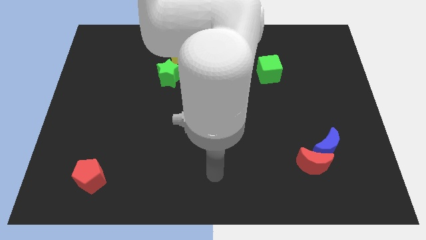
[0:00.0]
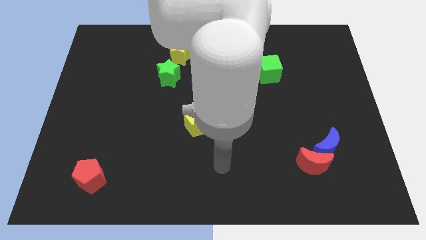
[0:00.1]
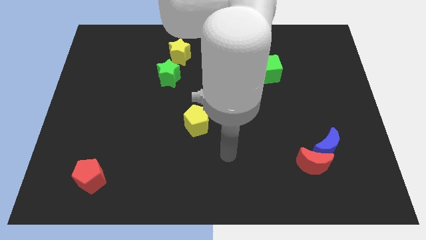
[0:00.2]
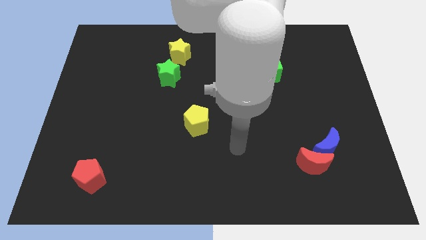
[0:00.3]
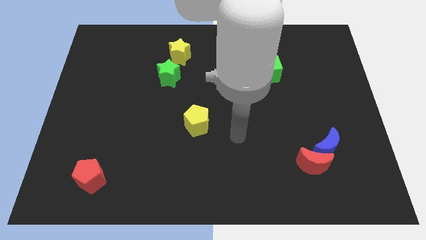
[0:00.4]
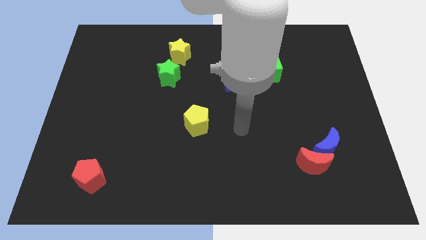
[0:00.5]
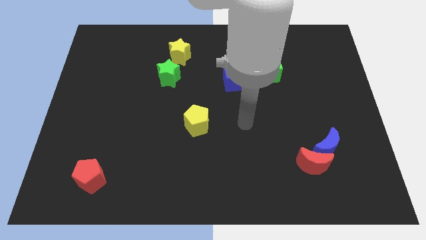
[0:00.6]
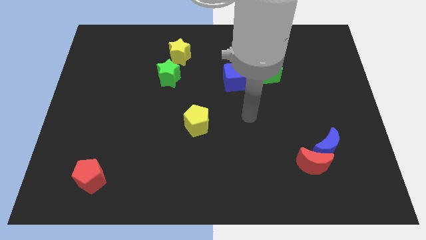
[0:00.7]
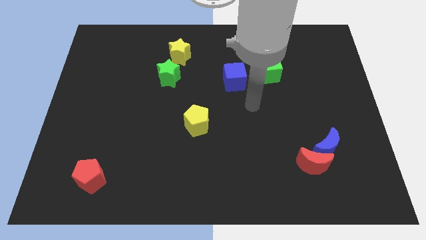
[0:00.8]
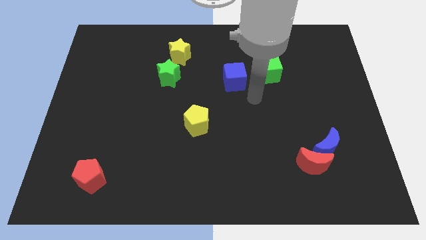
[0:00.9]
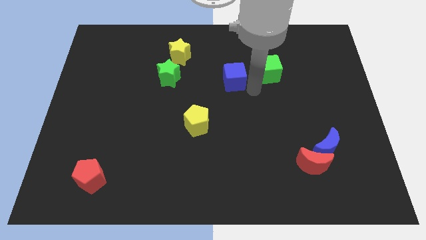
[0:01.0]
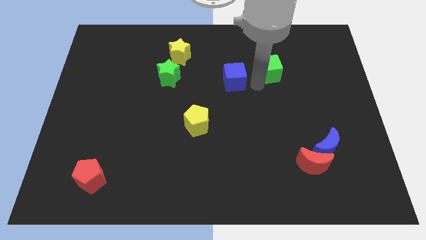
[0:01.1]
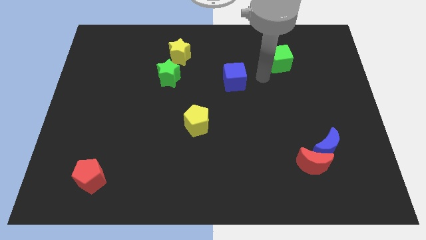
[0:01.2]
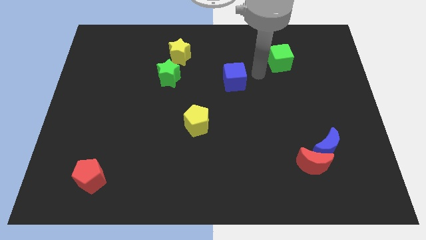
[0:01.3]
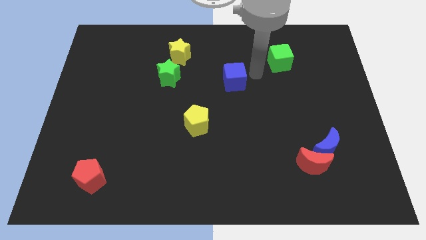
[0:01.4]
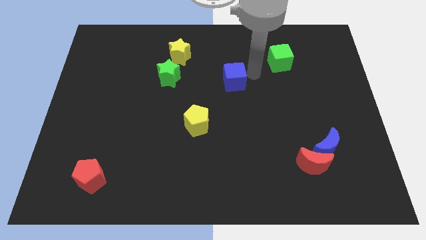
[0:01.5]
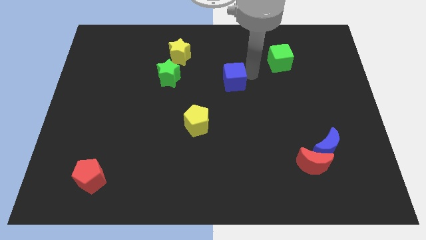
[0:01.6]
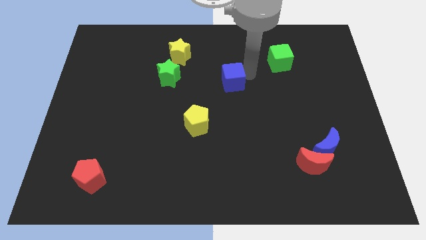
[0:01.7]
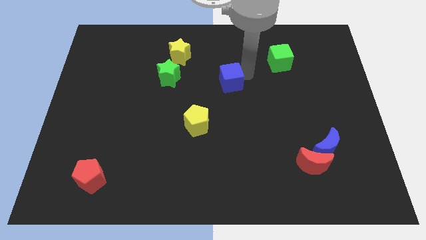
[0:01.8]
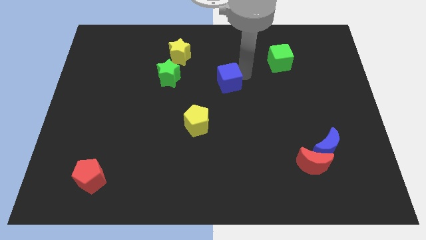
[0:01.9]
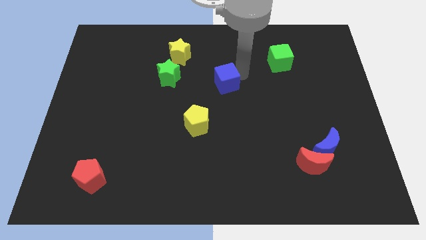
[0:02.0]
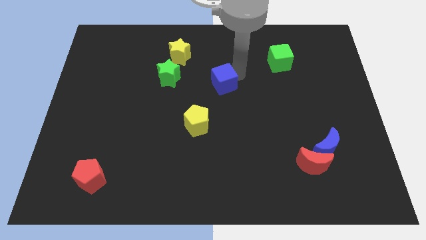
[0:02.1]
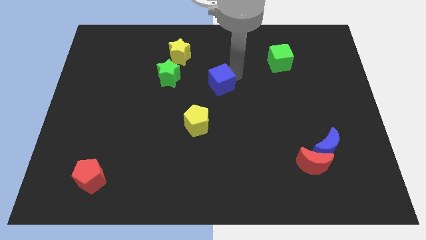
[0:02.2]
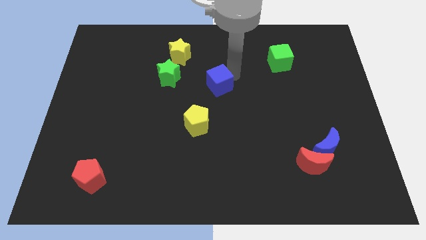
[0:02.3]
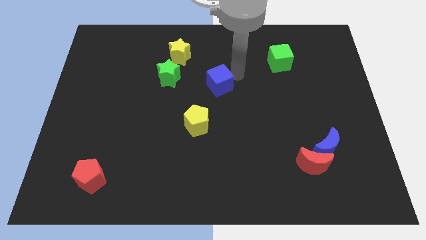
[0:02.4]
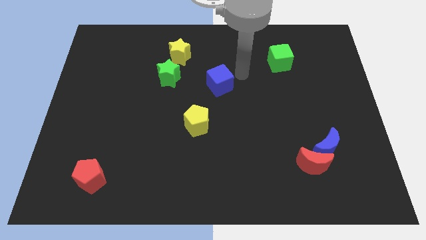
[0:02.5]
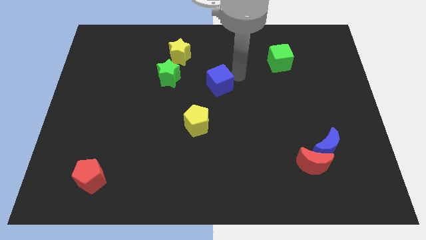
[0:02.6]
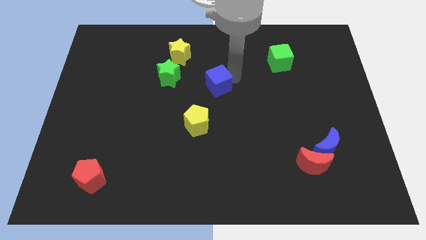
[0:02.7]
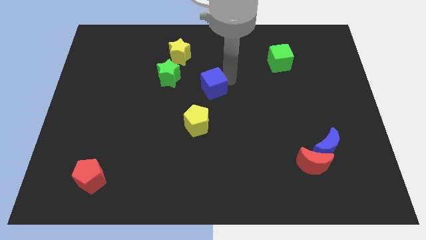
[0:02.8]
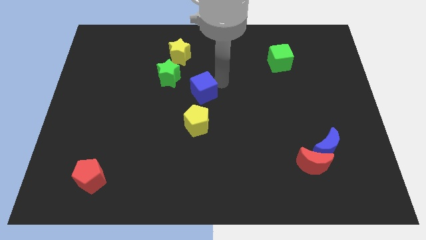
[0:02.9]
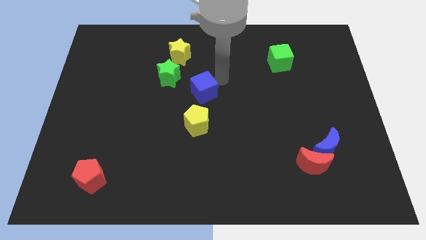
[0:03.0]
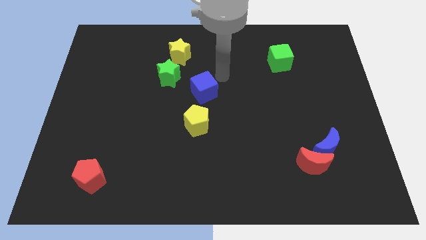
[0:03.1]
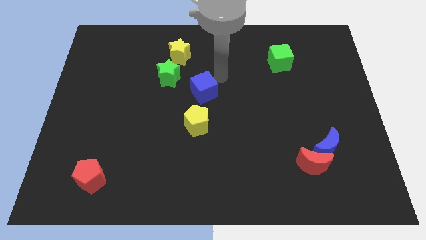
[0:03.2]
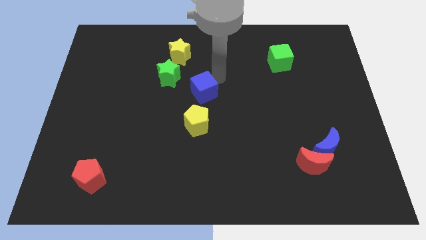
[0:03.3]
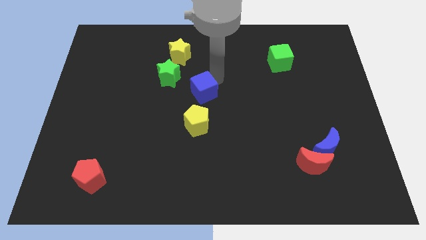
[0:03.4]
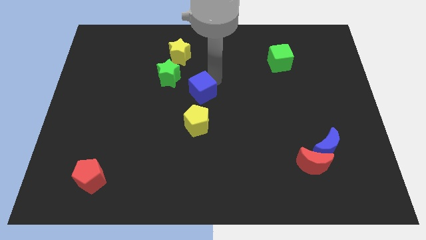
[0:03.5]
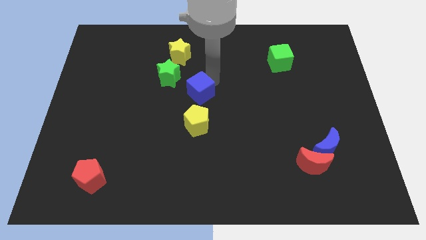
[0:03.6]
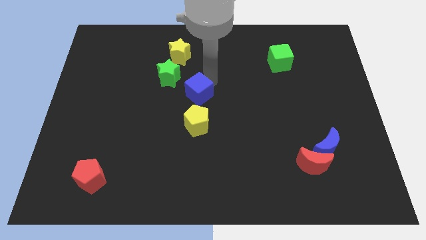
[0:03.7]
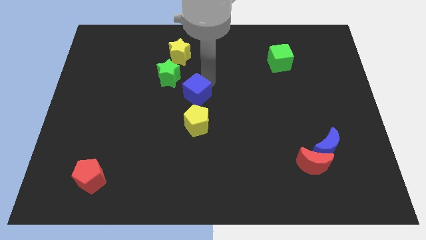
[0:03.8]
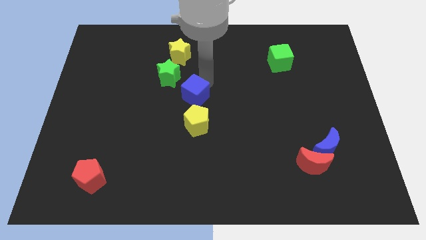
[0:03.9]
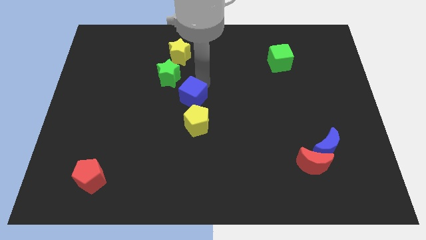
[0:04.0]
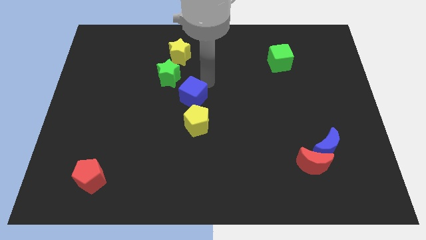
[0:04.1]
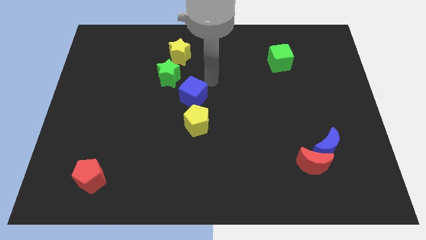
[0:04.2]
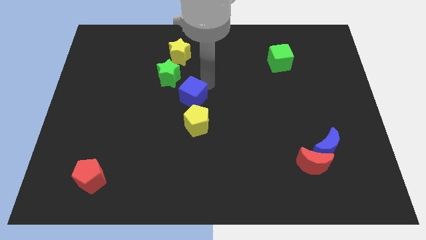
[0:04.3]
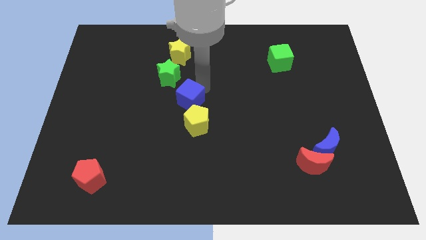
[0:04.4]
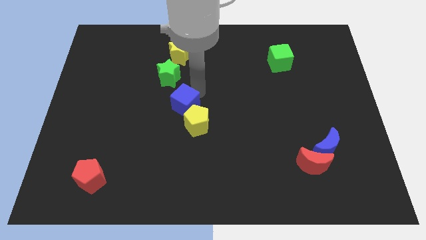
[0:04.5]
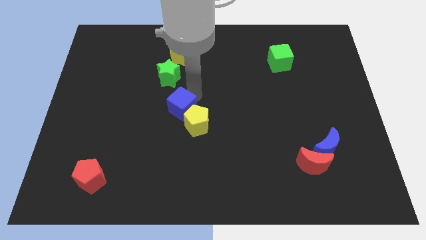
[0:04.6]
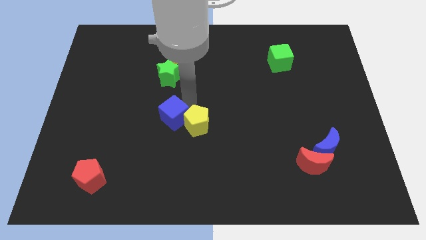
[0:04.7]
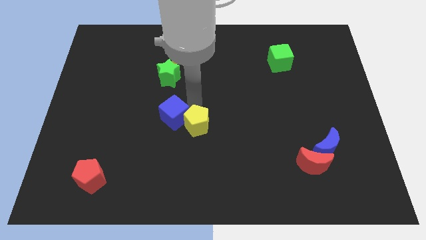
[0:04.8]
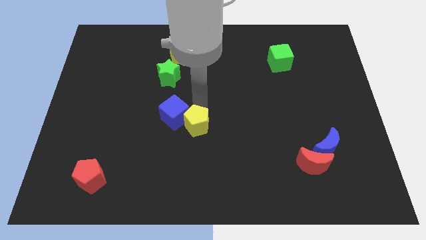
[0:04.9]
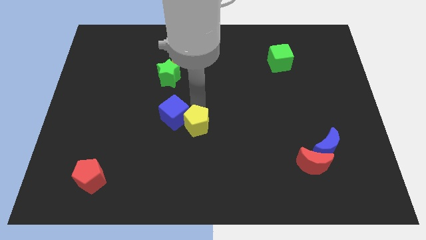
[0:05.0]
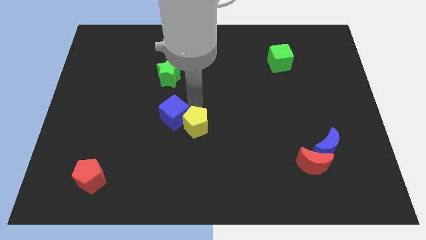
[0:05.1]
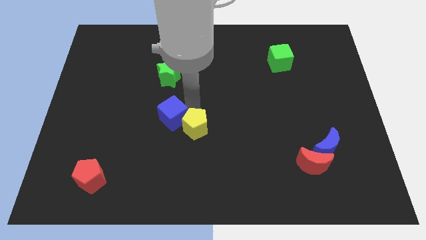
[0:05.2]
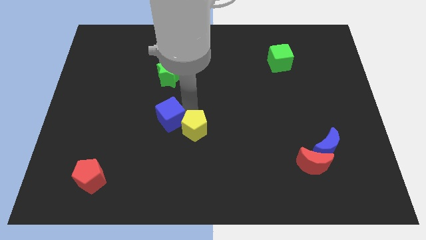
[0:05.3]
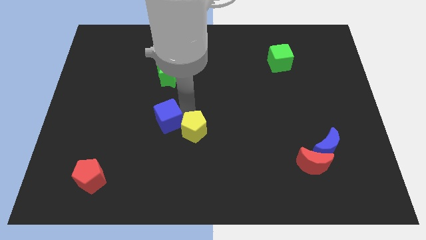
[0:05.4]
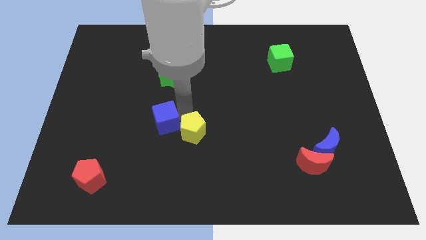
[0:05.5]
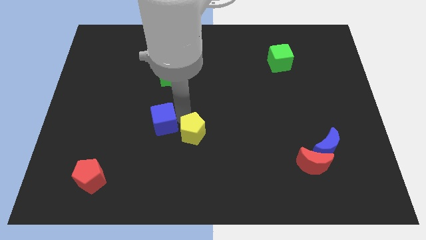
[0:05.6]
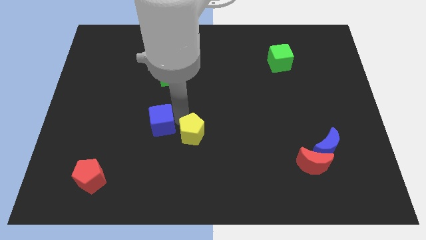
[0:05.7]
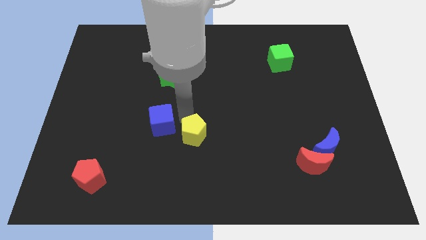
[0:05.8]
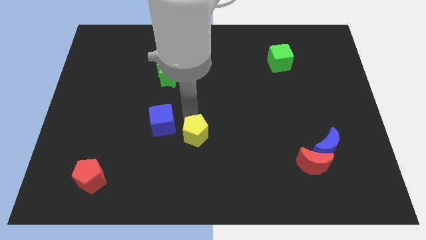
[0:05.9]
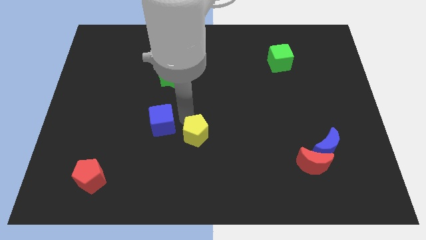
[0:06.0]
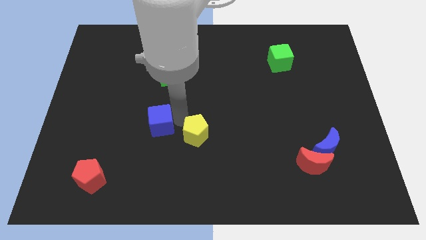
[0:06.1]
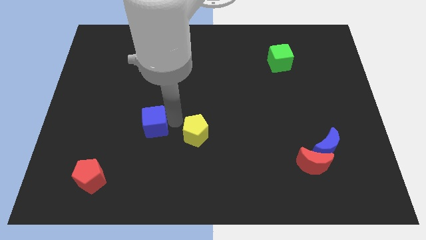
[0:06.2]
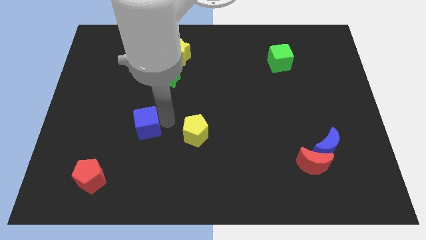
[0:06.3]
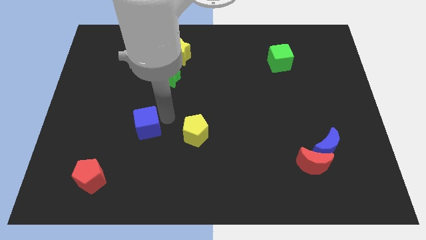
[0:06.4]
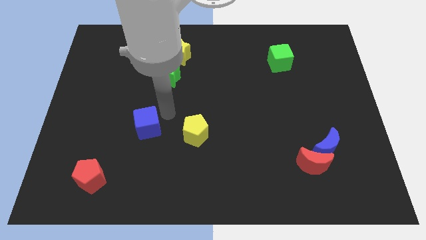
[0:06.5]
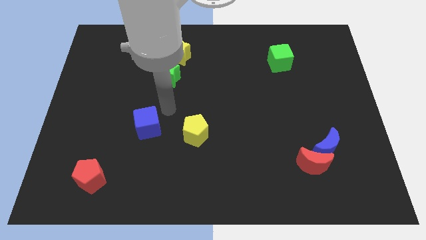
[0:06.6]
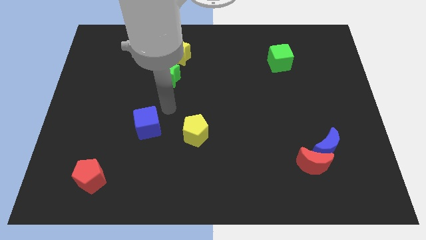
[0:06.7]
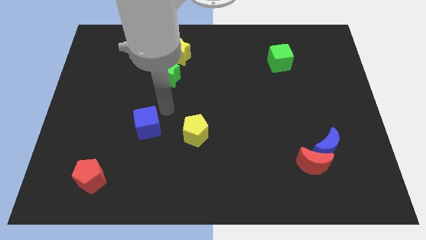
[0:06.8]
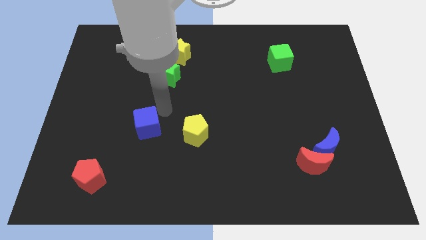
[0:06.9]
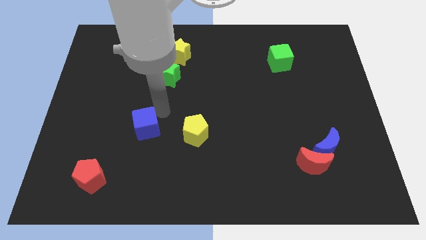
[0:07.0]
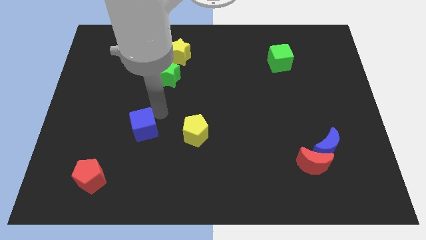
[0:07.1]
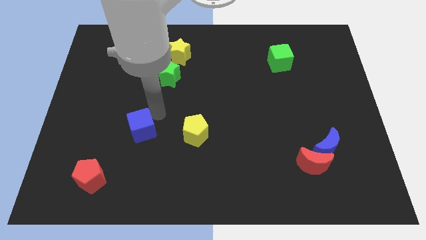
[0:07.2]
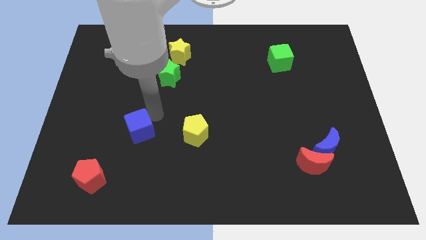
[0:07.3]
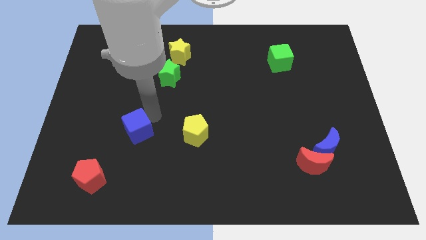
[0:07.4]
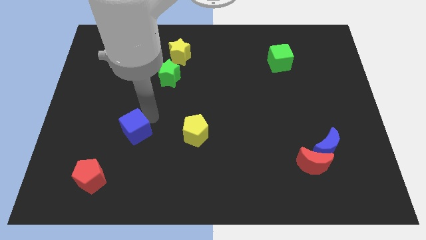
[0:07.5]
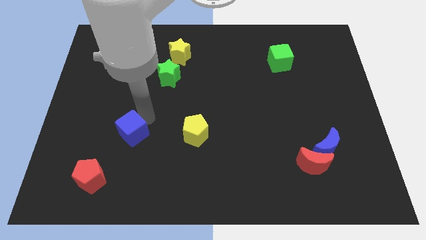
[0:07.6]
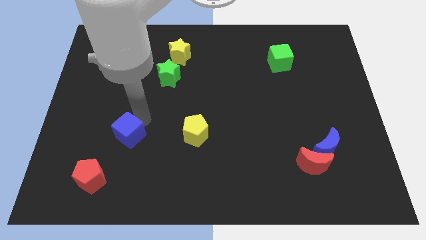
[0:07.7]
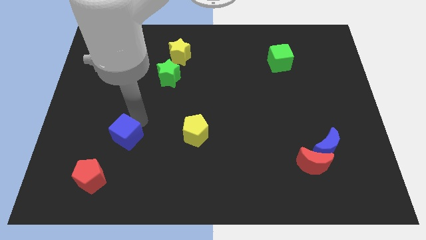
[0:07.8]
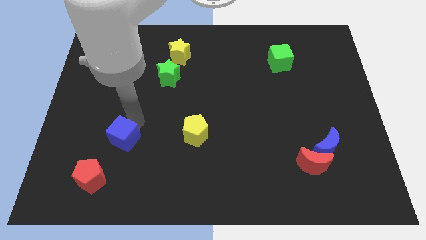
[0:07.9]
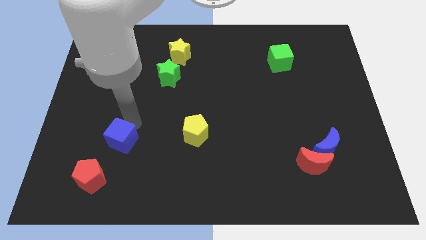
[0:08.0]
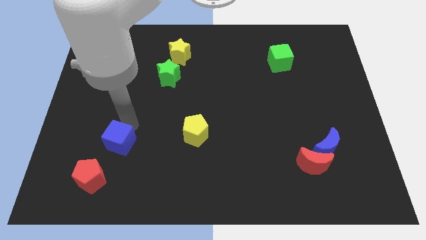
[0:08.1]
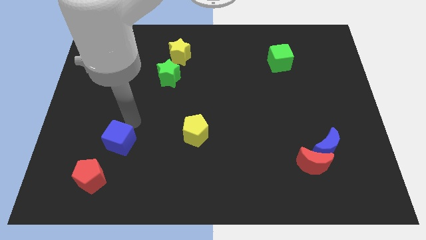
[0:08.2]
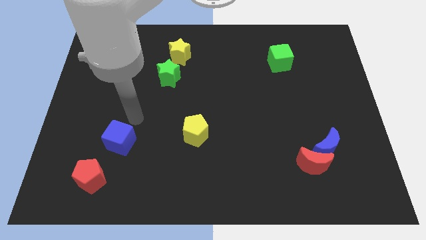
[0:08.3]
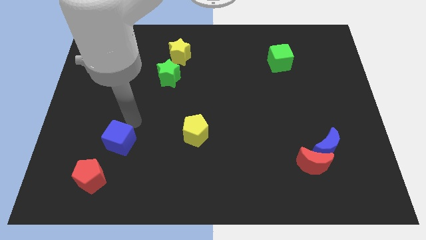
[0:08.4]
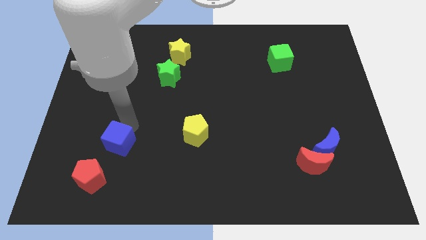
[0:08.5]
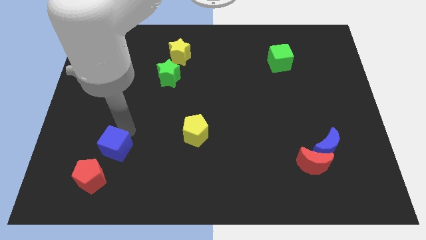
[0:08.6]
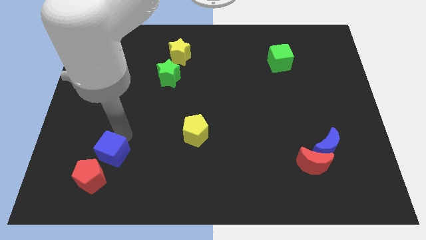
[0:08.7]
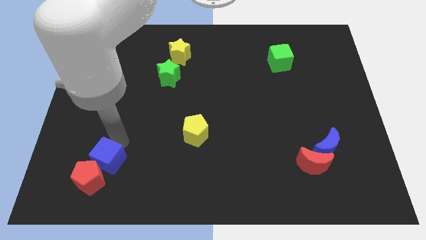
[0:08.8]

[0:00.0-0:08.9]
move the blue cube to the red pentagon

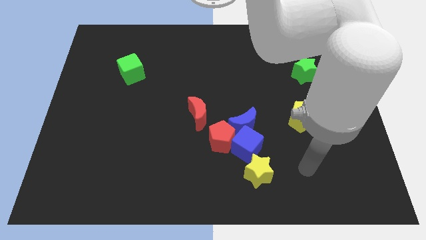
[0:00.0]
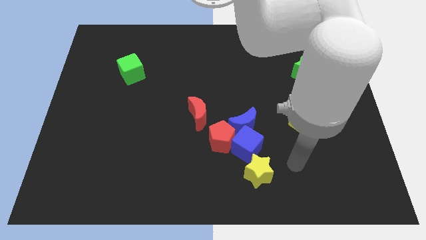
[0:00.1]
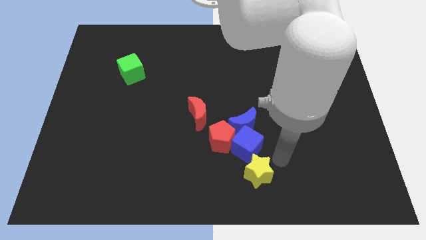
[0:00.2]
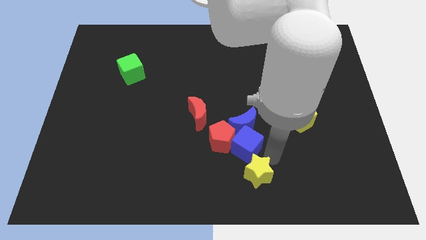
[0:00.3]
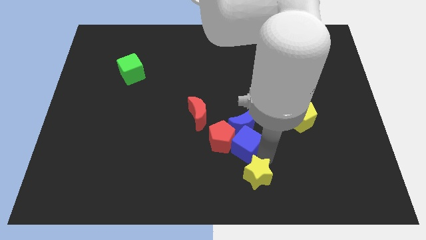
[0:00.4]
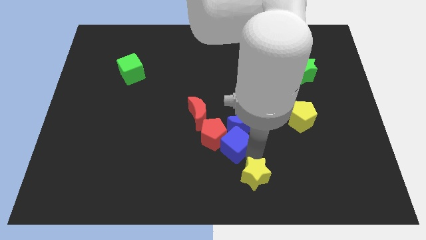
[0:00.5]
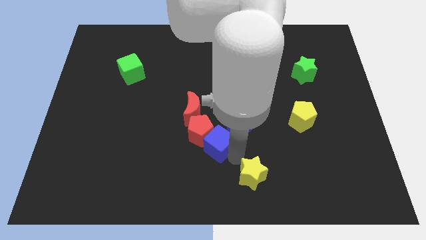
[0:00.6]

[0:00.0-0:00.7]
move the red pentagon close to the red moon
